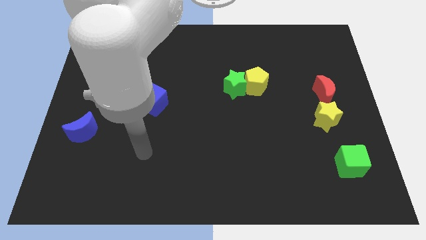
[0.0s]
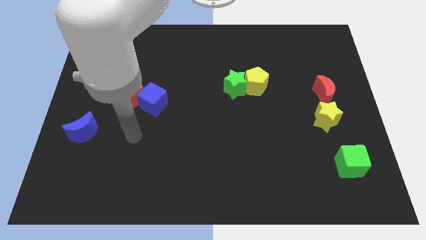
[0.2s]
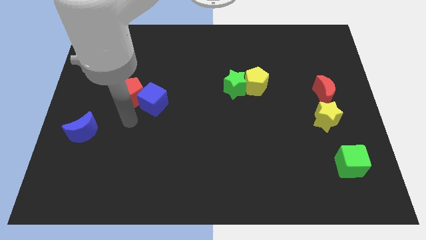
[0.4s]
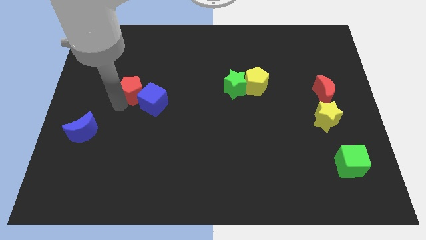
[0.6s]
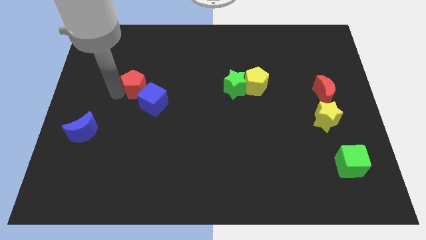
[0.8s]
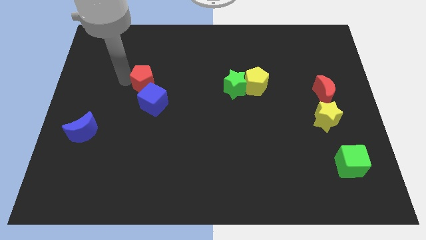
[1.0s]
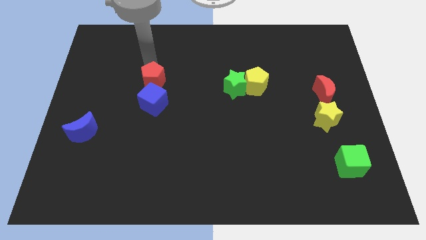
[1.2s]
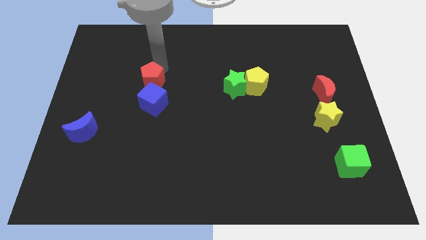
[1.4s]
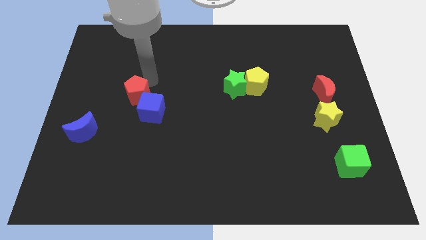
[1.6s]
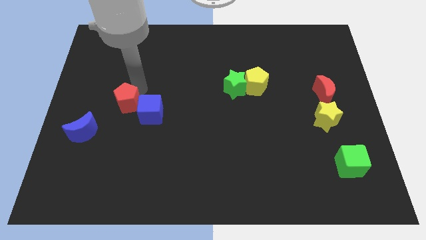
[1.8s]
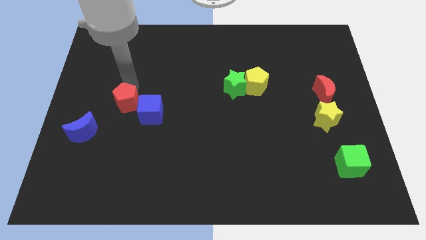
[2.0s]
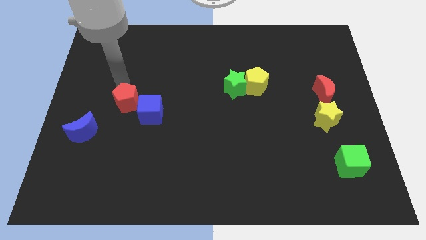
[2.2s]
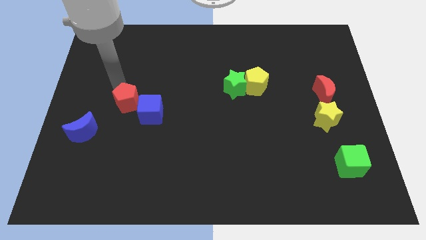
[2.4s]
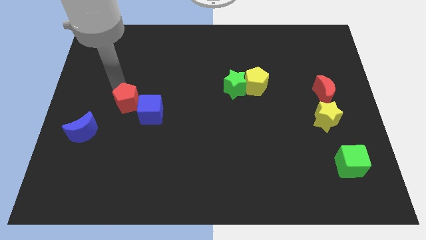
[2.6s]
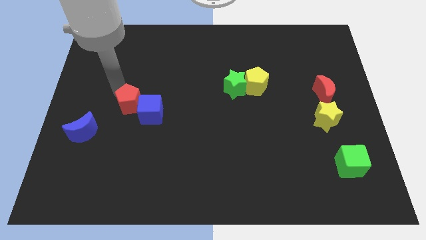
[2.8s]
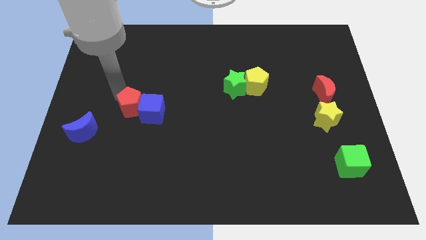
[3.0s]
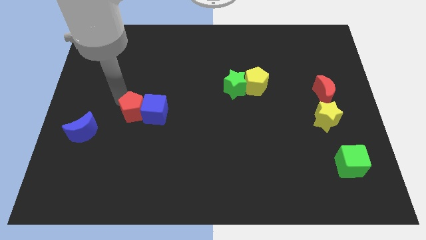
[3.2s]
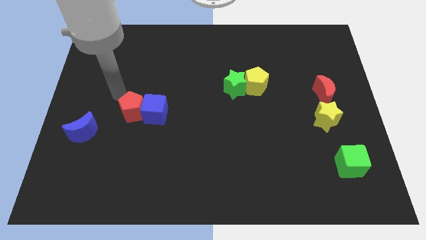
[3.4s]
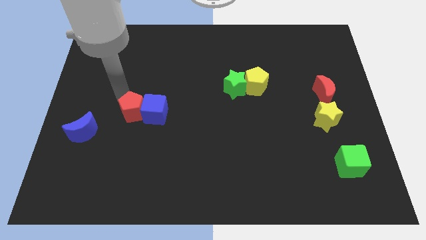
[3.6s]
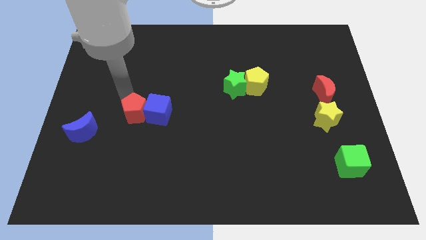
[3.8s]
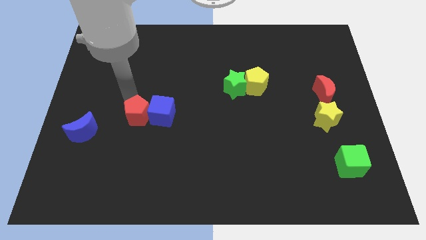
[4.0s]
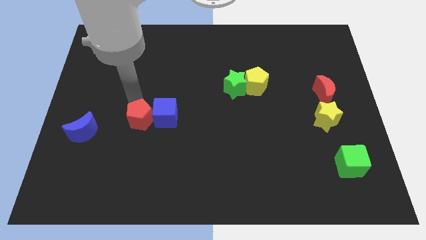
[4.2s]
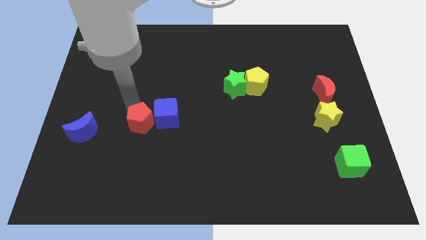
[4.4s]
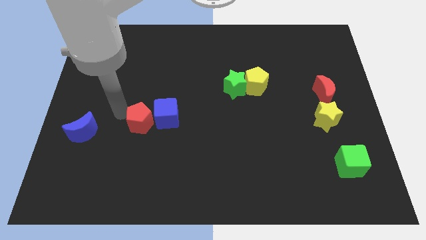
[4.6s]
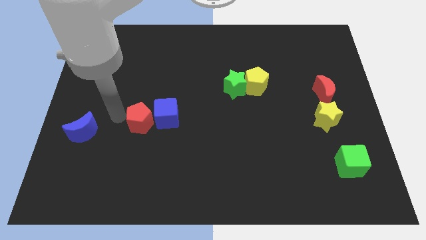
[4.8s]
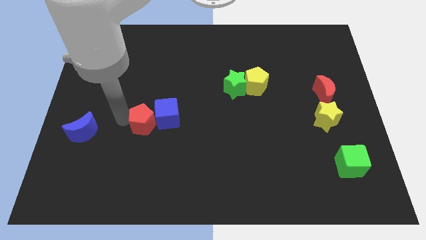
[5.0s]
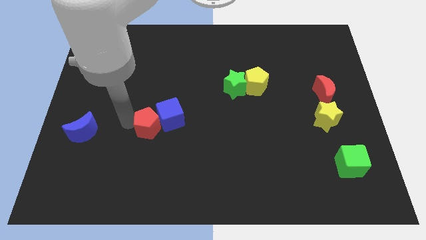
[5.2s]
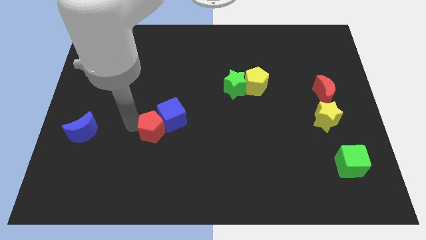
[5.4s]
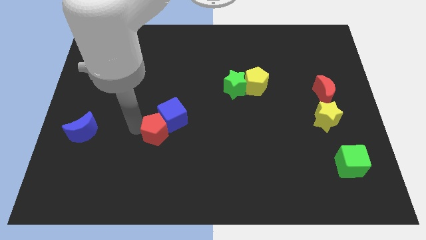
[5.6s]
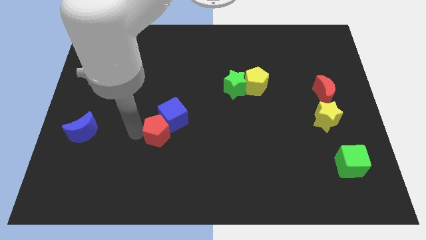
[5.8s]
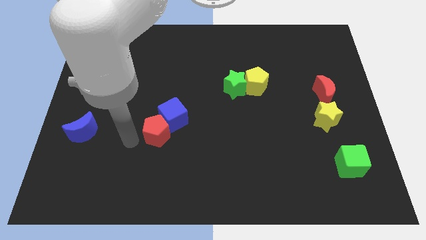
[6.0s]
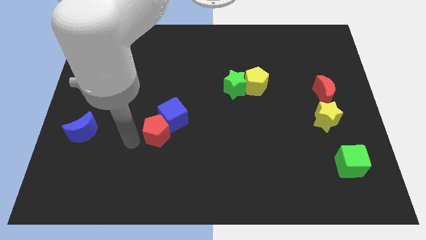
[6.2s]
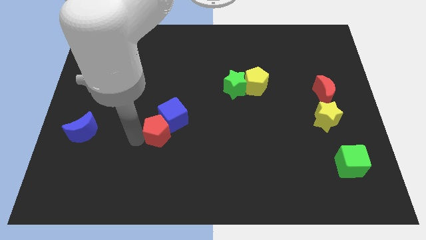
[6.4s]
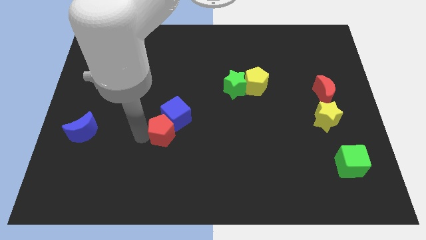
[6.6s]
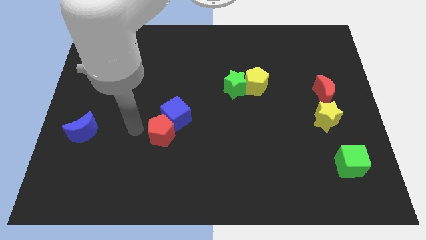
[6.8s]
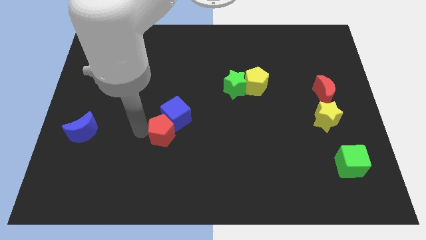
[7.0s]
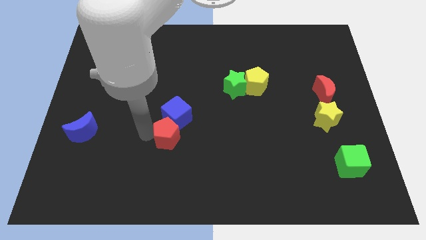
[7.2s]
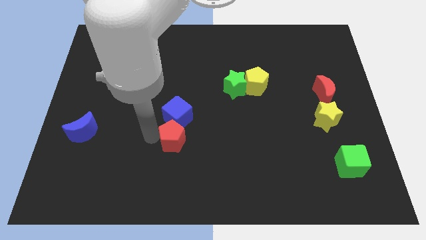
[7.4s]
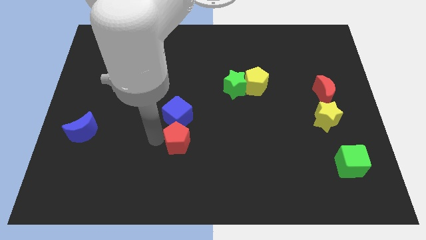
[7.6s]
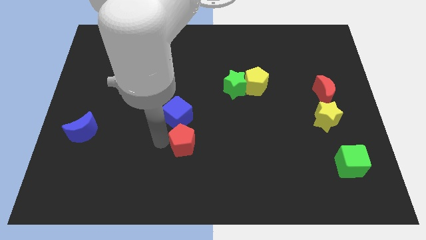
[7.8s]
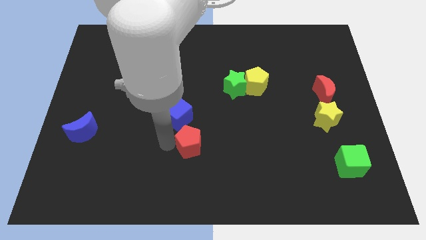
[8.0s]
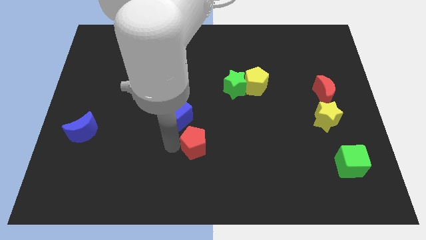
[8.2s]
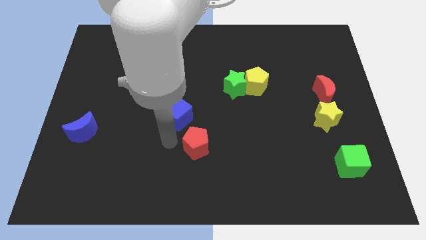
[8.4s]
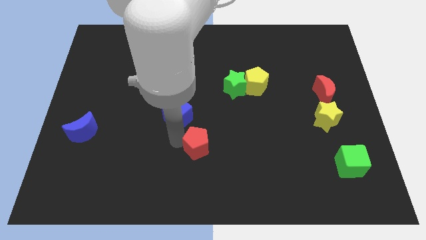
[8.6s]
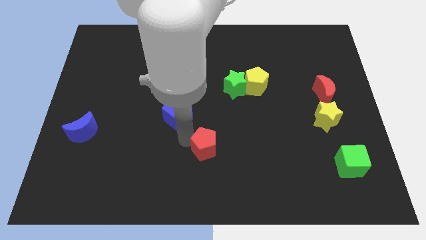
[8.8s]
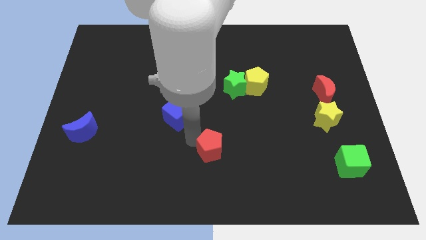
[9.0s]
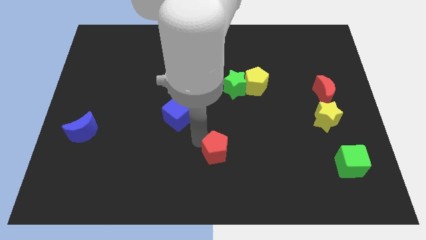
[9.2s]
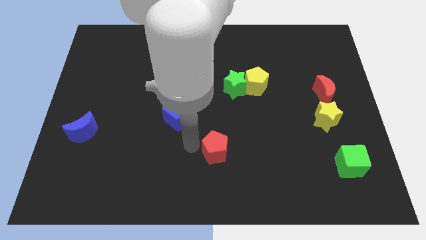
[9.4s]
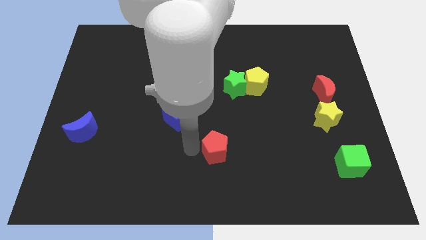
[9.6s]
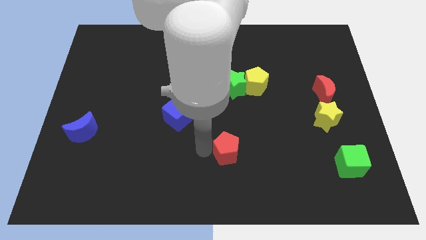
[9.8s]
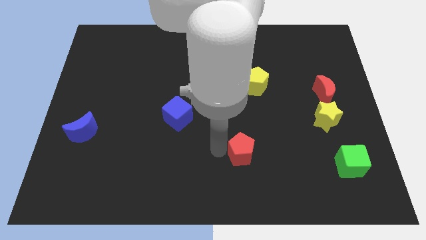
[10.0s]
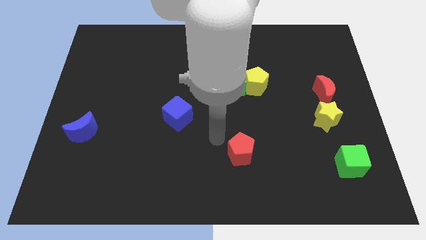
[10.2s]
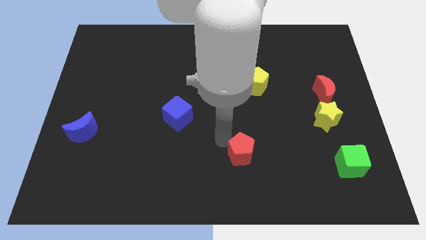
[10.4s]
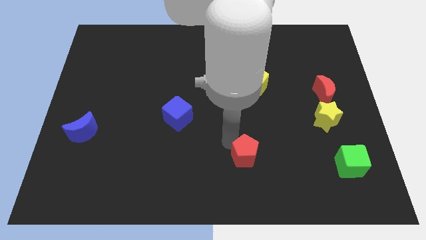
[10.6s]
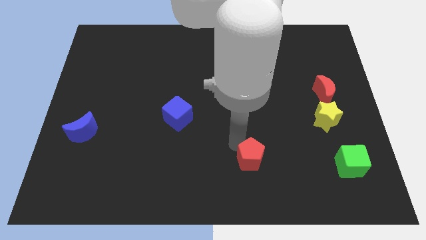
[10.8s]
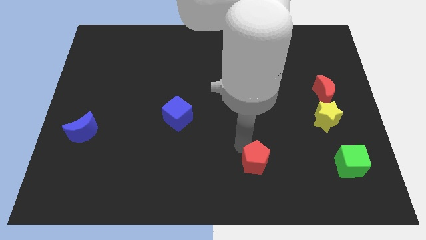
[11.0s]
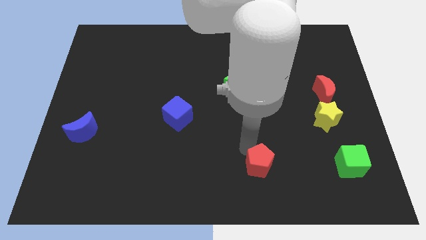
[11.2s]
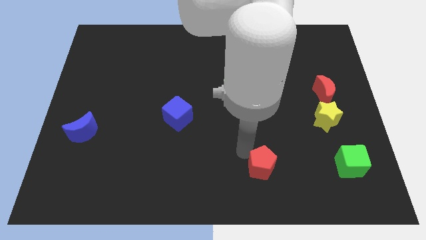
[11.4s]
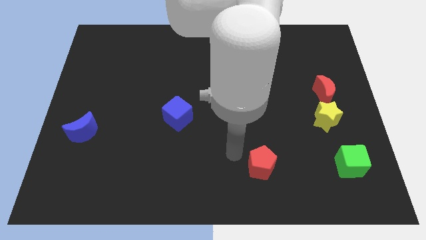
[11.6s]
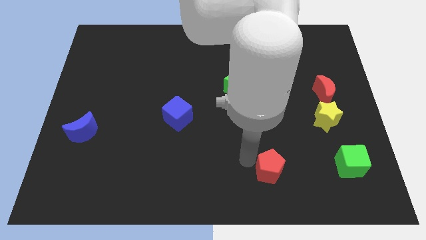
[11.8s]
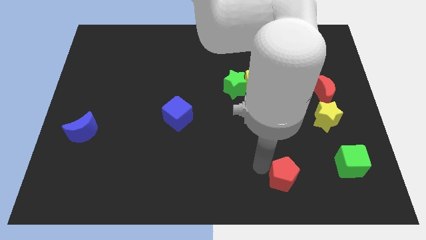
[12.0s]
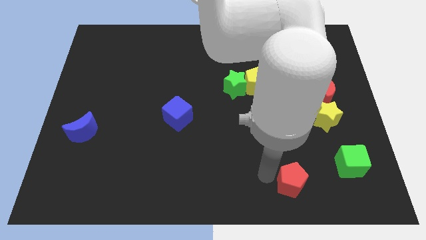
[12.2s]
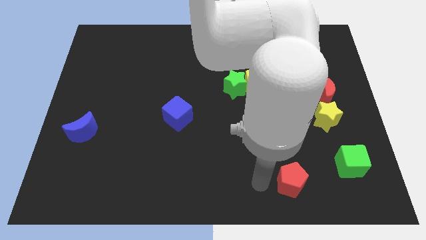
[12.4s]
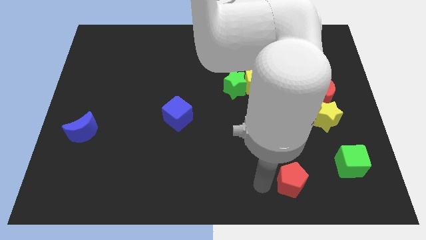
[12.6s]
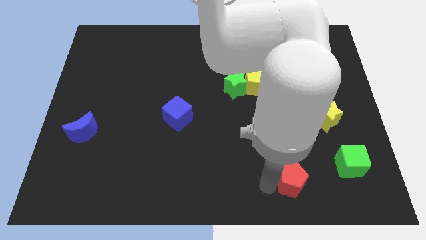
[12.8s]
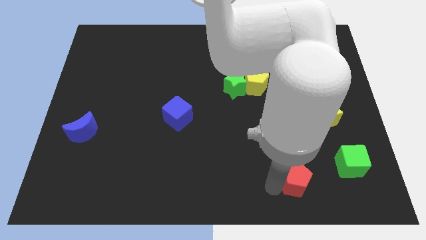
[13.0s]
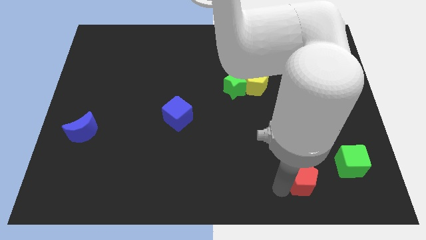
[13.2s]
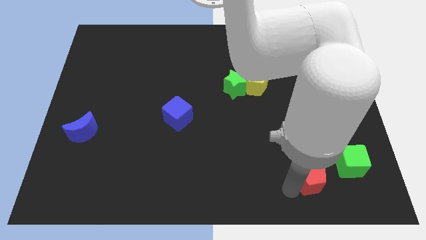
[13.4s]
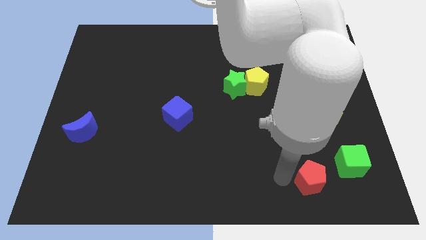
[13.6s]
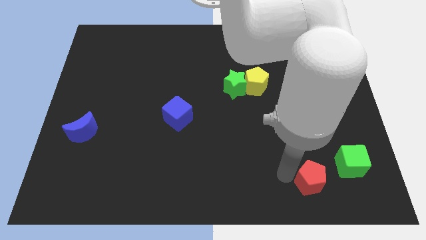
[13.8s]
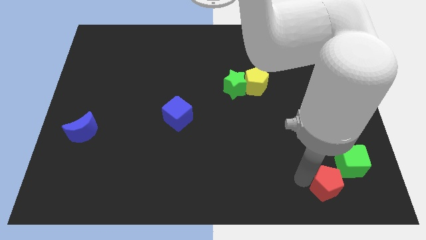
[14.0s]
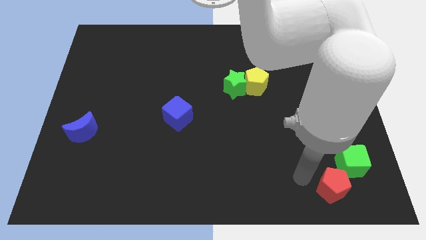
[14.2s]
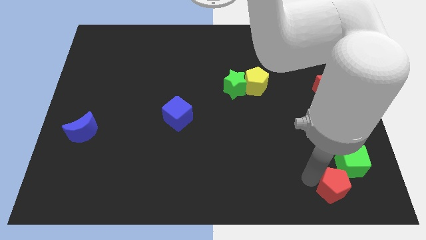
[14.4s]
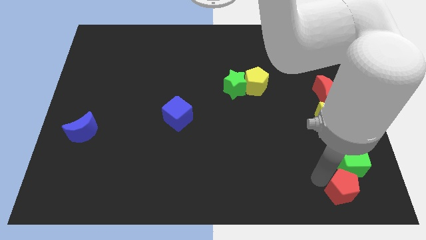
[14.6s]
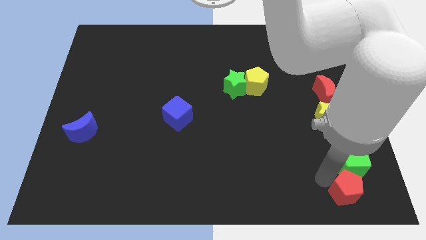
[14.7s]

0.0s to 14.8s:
put the red pentagon to the bottom right
